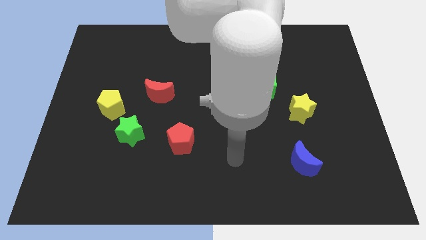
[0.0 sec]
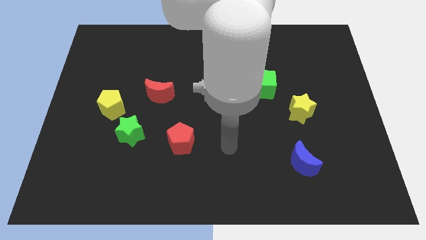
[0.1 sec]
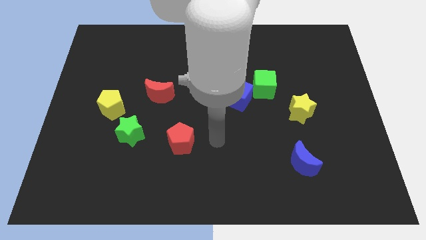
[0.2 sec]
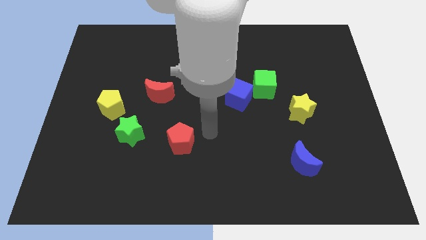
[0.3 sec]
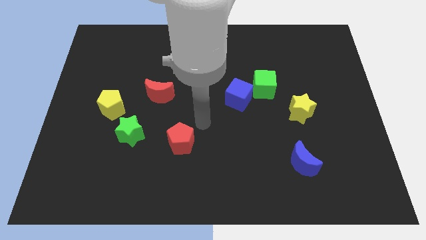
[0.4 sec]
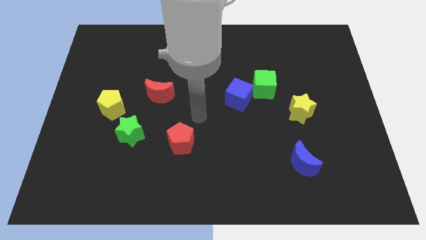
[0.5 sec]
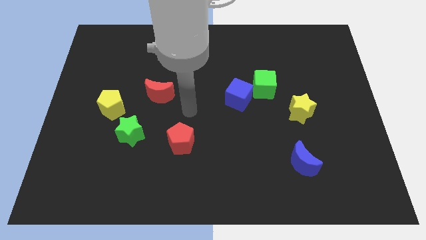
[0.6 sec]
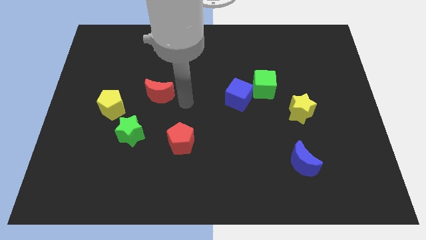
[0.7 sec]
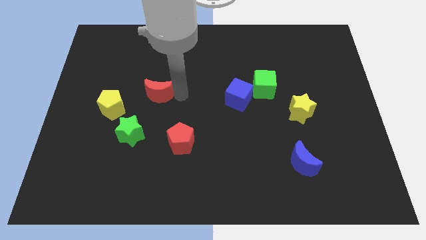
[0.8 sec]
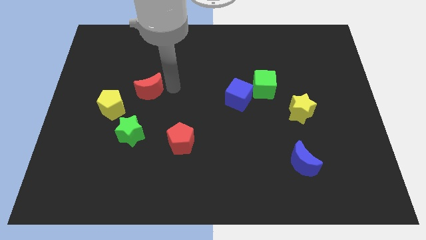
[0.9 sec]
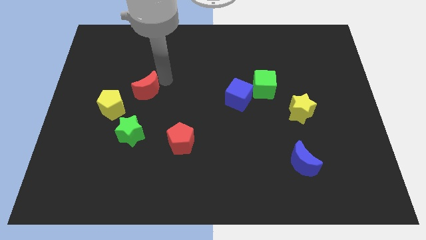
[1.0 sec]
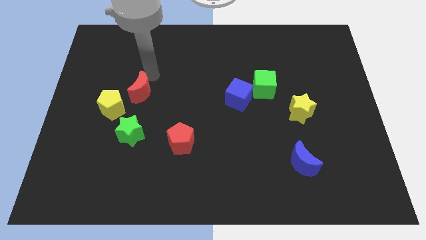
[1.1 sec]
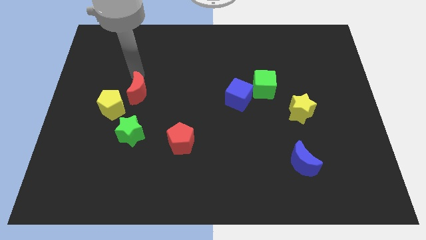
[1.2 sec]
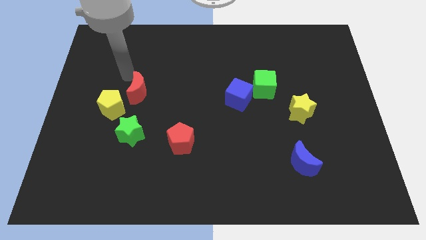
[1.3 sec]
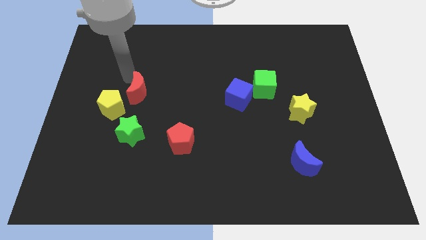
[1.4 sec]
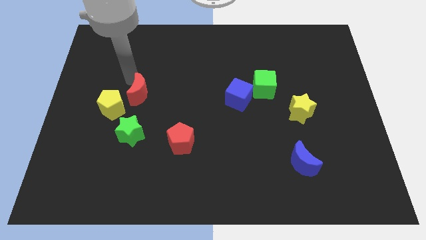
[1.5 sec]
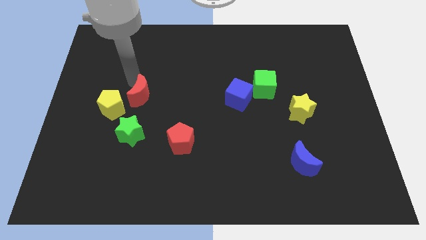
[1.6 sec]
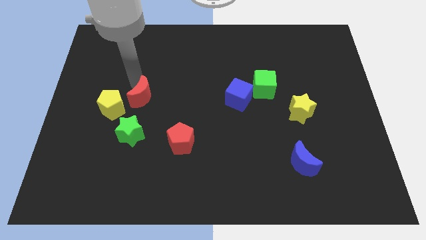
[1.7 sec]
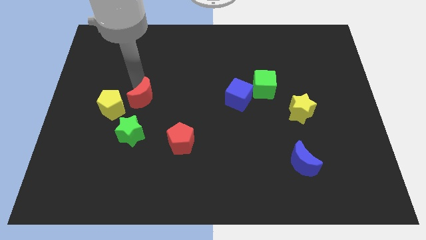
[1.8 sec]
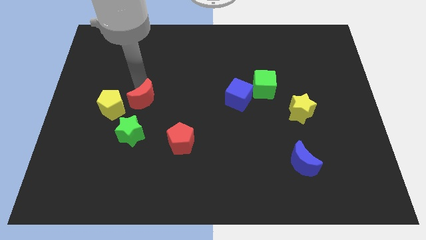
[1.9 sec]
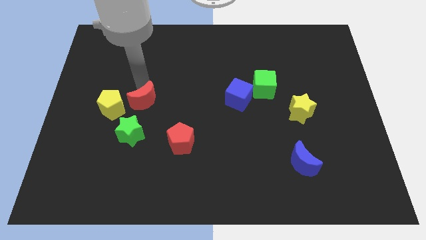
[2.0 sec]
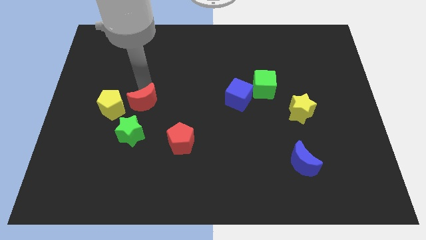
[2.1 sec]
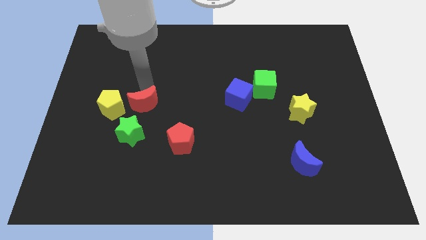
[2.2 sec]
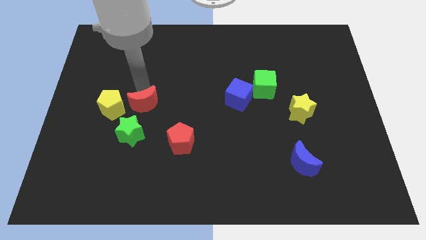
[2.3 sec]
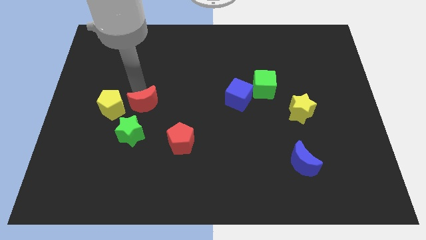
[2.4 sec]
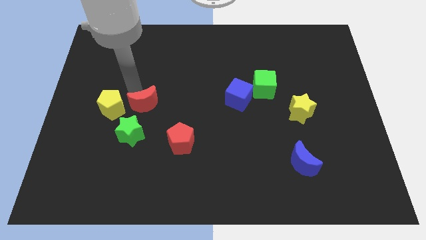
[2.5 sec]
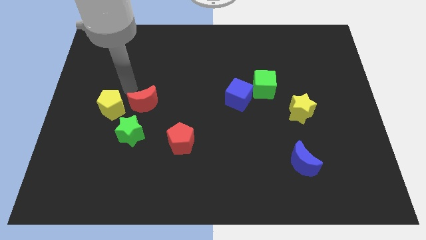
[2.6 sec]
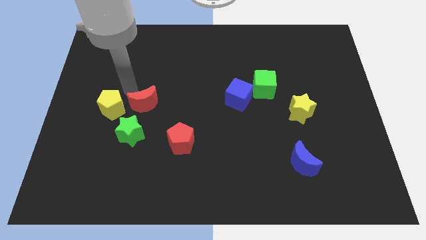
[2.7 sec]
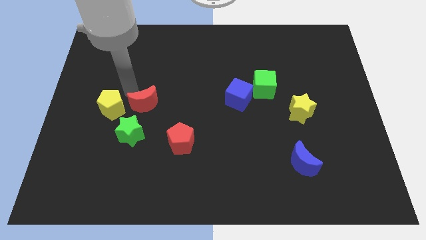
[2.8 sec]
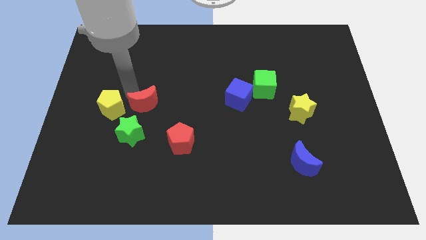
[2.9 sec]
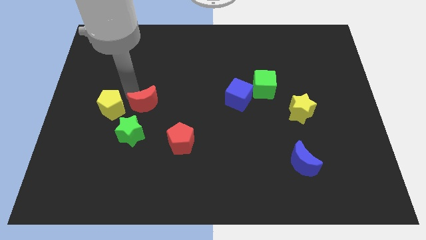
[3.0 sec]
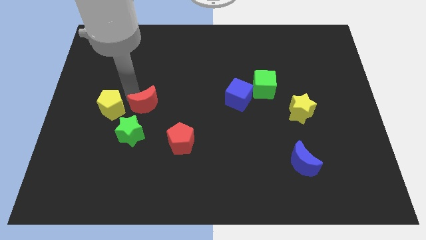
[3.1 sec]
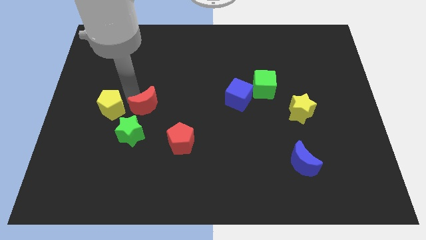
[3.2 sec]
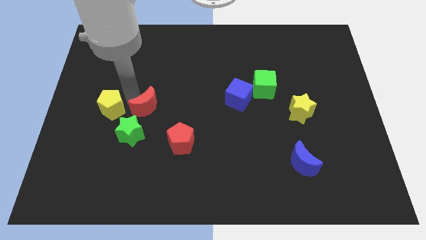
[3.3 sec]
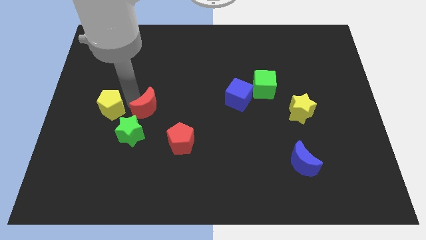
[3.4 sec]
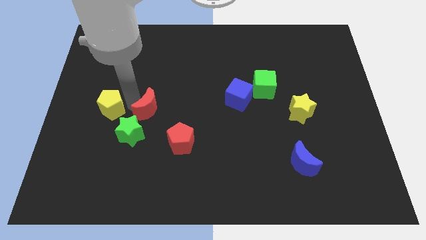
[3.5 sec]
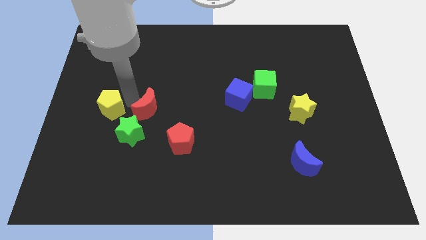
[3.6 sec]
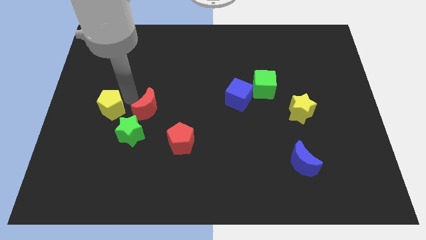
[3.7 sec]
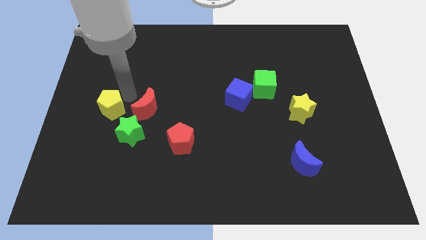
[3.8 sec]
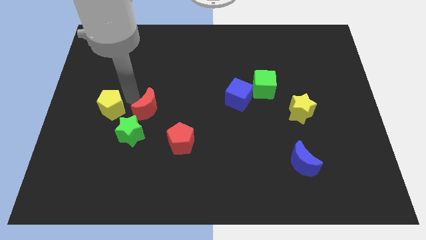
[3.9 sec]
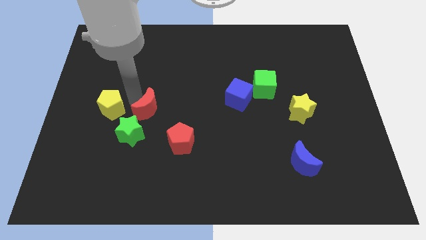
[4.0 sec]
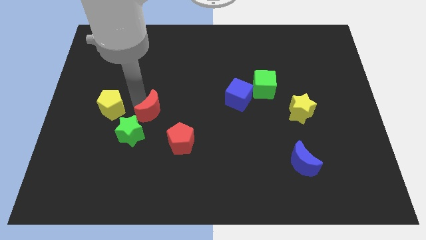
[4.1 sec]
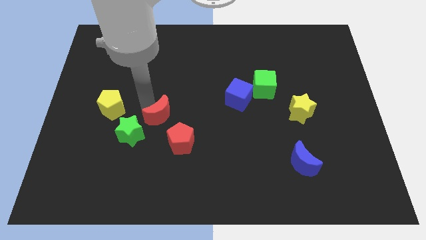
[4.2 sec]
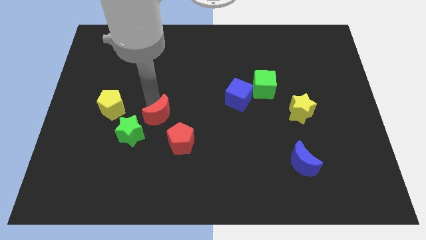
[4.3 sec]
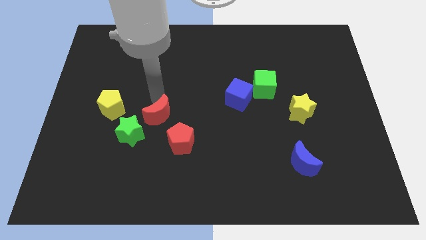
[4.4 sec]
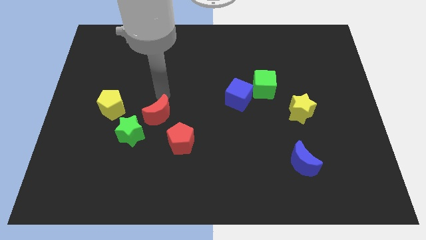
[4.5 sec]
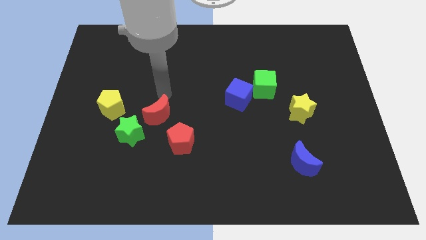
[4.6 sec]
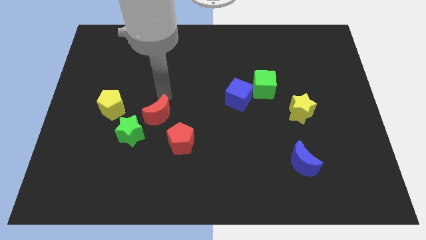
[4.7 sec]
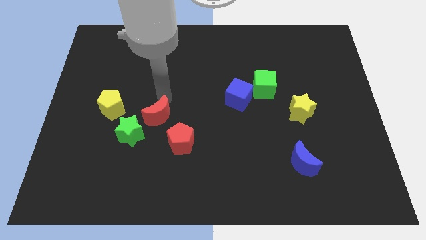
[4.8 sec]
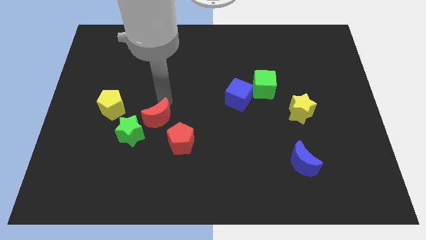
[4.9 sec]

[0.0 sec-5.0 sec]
move the red moon slightly downwards

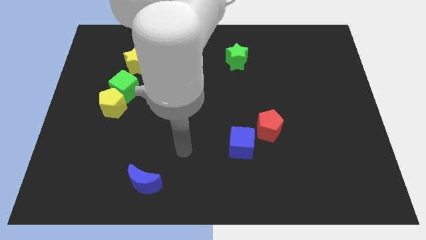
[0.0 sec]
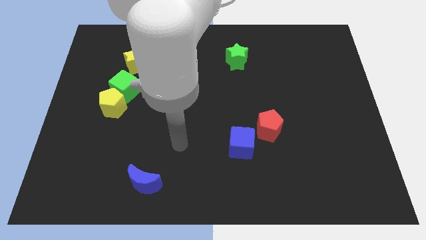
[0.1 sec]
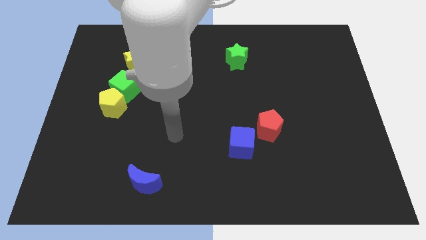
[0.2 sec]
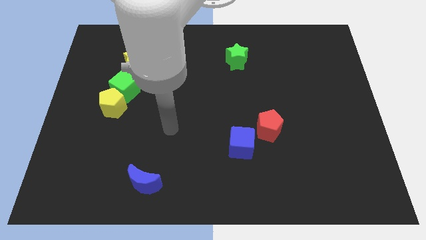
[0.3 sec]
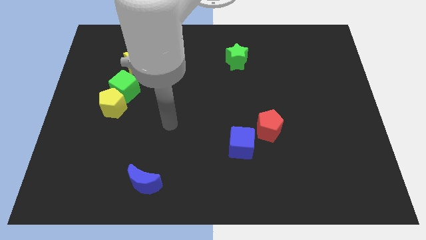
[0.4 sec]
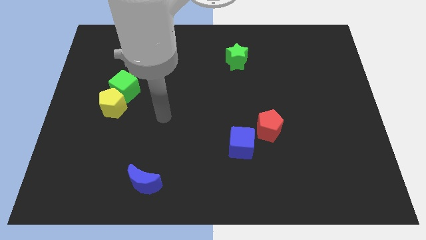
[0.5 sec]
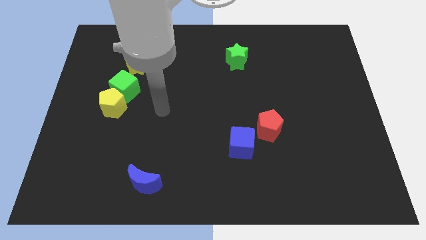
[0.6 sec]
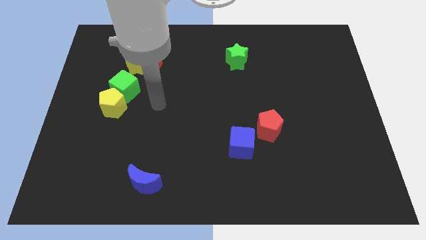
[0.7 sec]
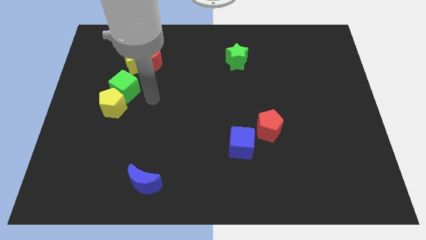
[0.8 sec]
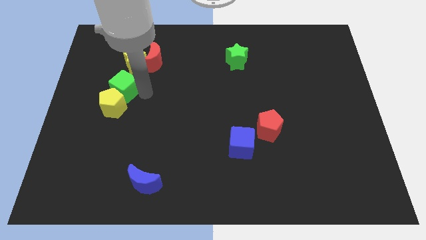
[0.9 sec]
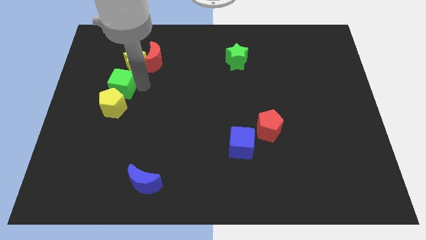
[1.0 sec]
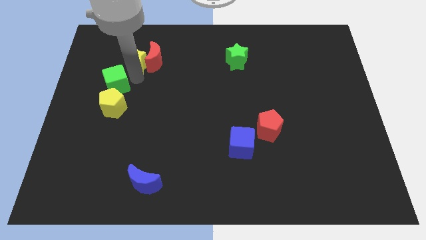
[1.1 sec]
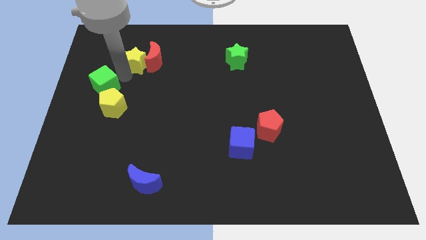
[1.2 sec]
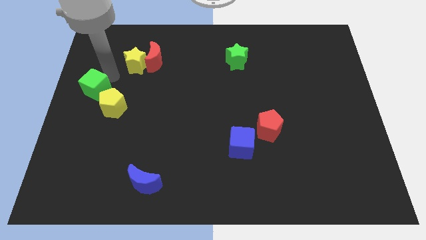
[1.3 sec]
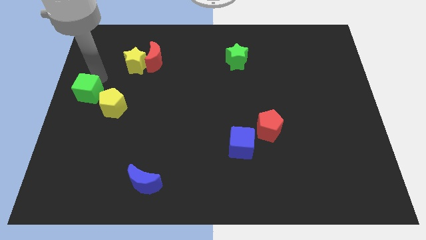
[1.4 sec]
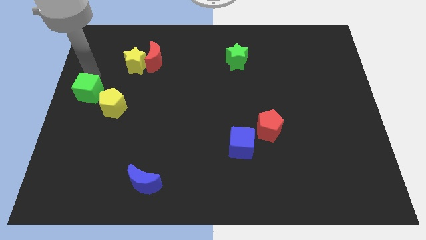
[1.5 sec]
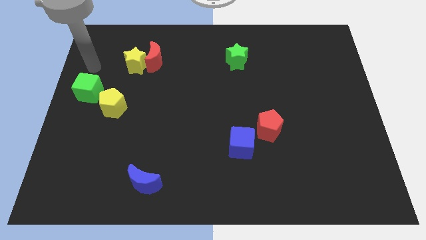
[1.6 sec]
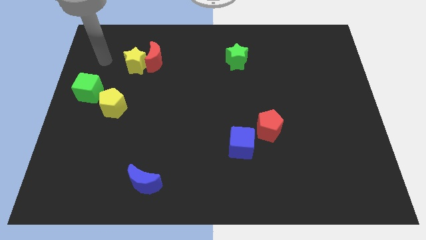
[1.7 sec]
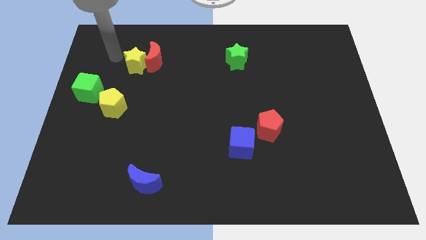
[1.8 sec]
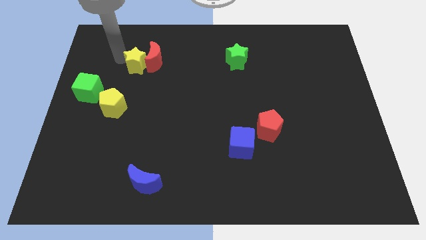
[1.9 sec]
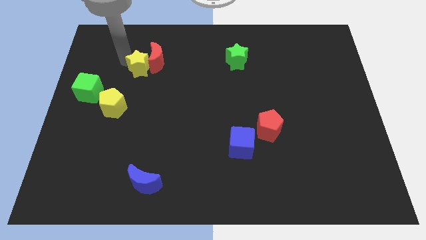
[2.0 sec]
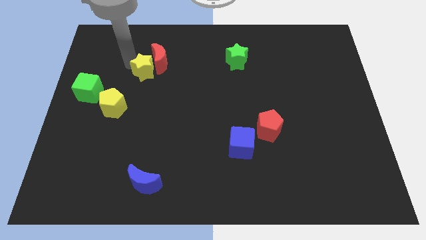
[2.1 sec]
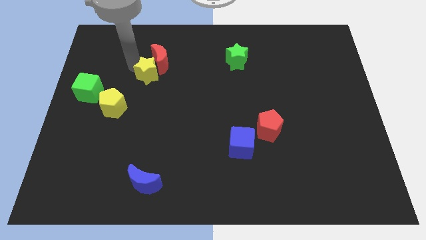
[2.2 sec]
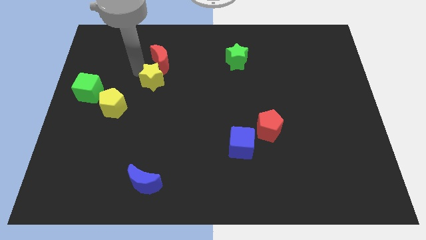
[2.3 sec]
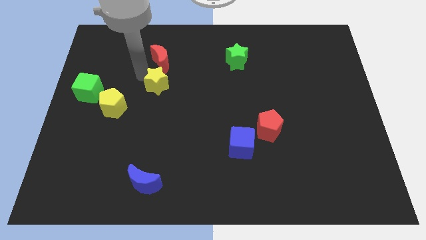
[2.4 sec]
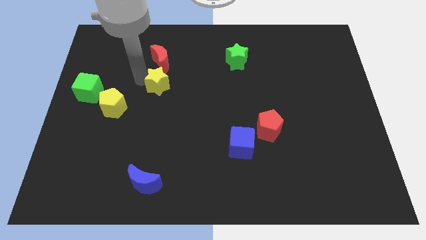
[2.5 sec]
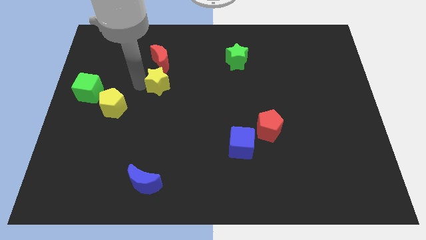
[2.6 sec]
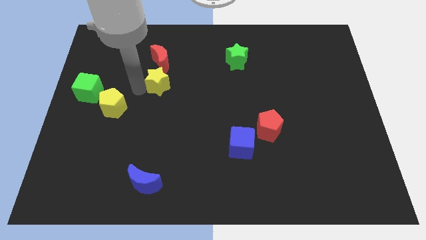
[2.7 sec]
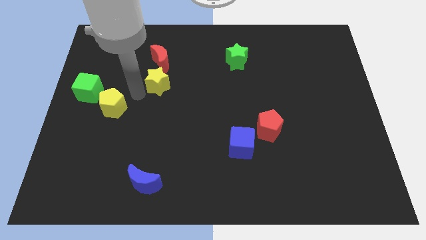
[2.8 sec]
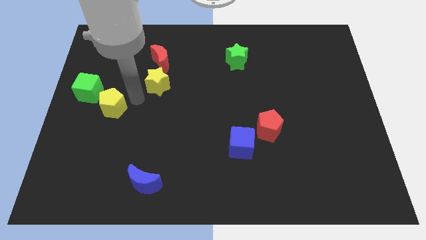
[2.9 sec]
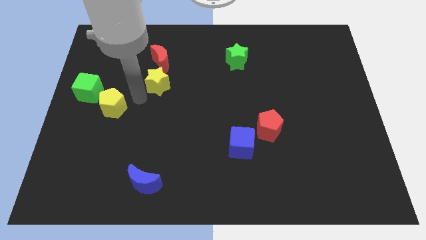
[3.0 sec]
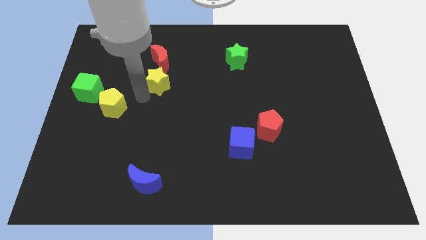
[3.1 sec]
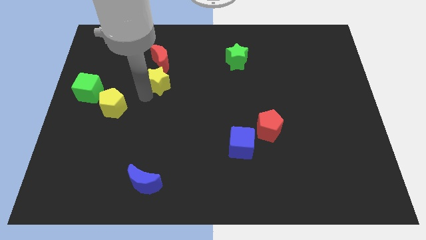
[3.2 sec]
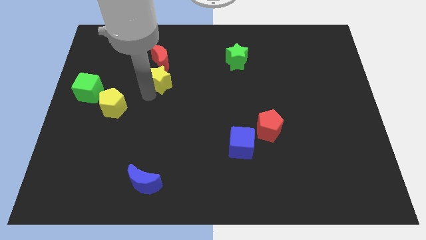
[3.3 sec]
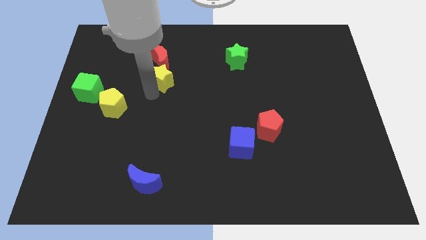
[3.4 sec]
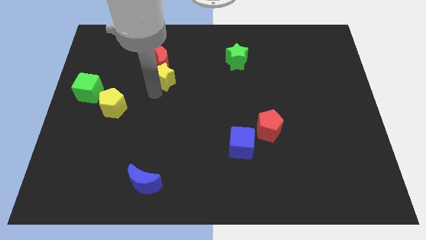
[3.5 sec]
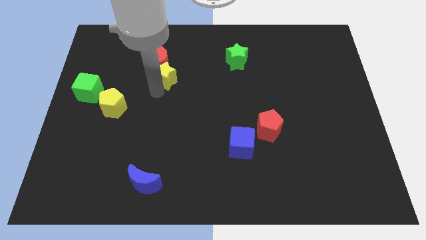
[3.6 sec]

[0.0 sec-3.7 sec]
move the yellow star slightly right
